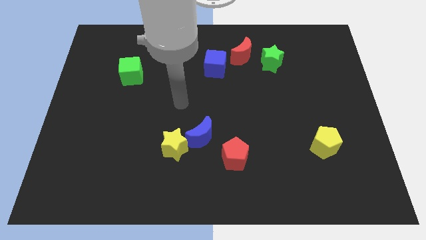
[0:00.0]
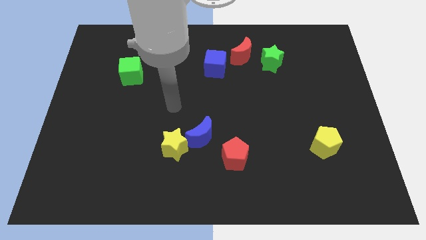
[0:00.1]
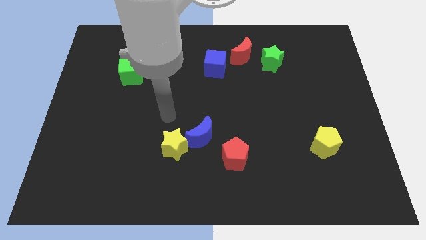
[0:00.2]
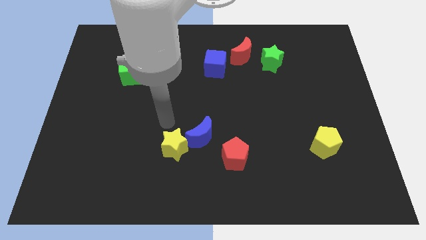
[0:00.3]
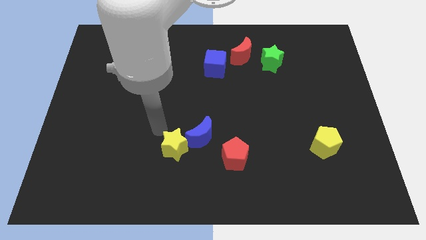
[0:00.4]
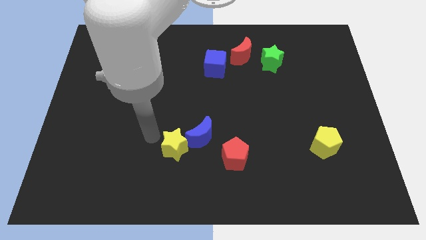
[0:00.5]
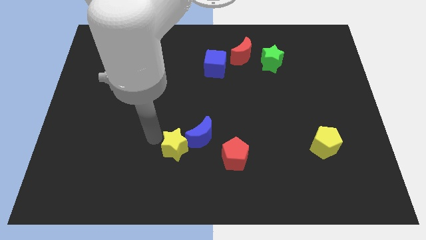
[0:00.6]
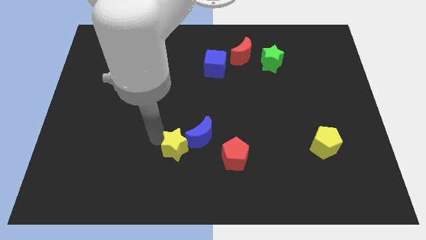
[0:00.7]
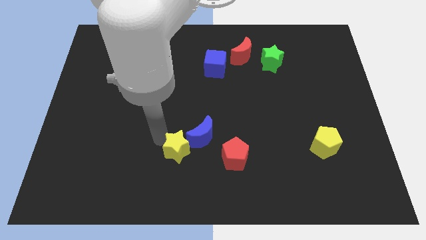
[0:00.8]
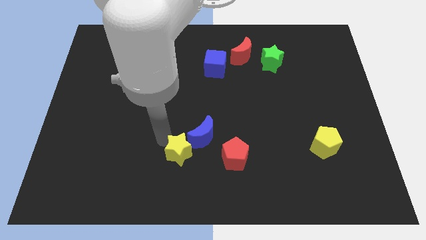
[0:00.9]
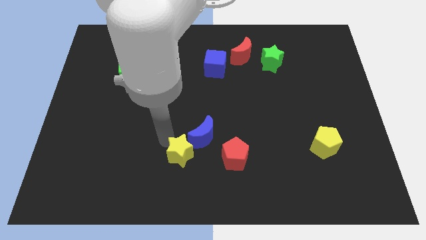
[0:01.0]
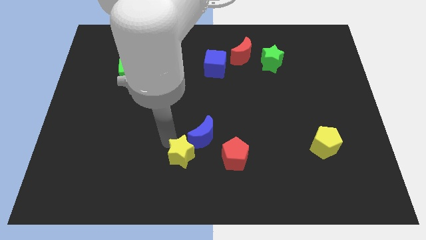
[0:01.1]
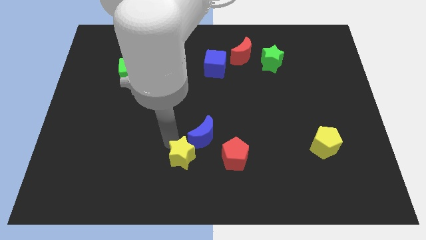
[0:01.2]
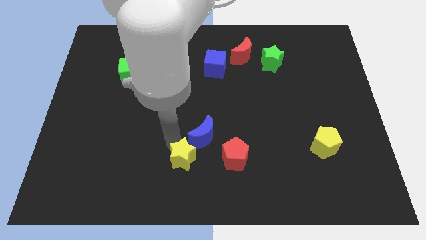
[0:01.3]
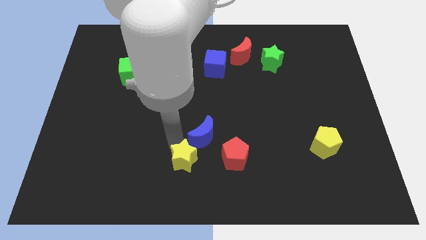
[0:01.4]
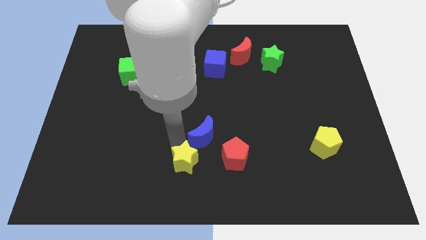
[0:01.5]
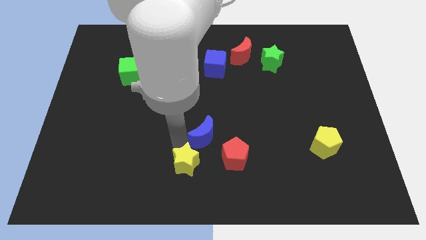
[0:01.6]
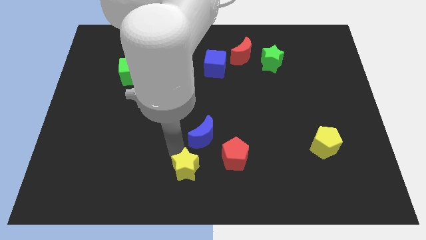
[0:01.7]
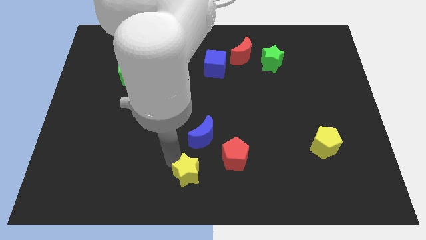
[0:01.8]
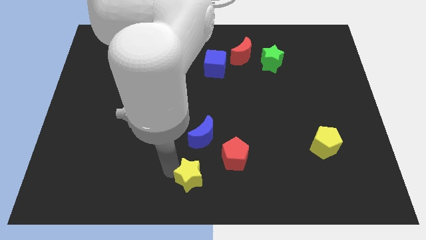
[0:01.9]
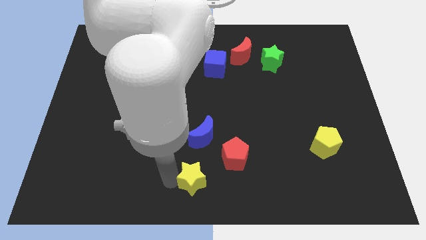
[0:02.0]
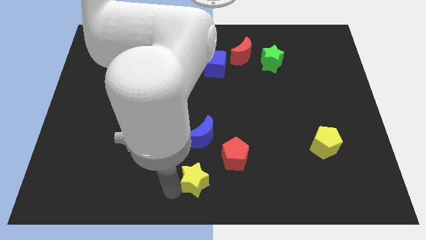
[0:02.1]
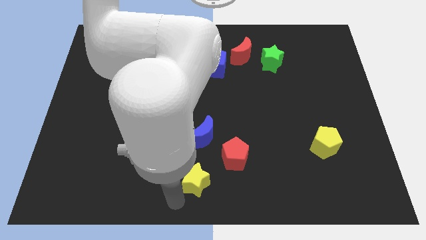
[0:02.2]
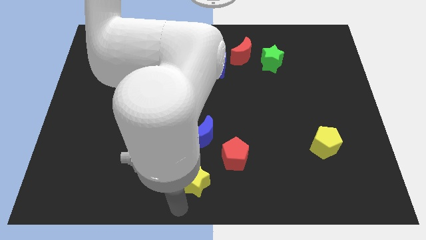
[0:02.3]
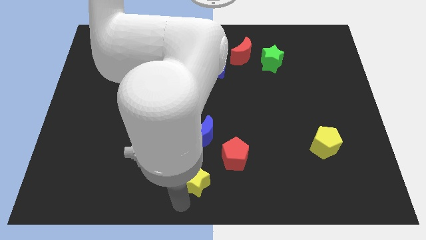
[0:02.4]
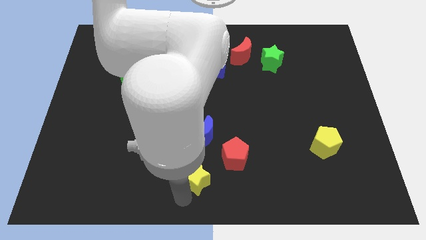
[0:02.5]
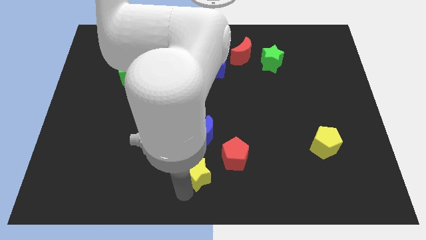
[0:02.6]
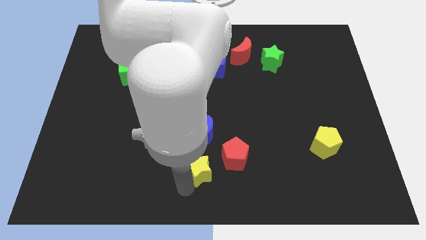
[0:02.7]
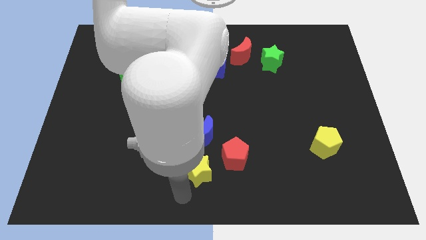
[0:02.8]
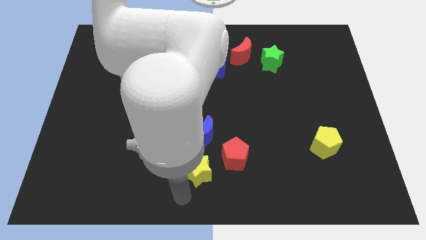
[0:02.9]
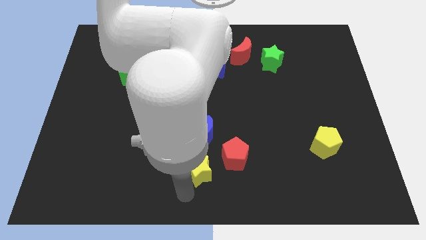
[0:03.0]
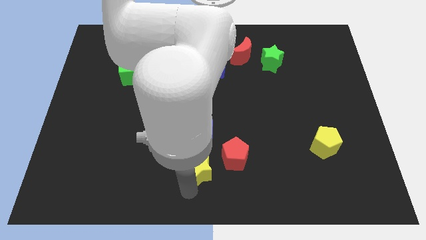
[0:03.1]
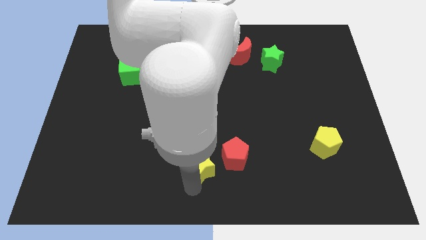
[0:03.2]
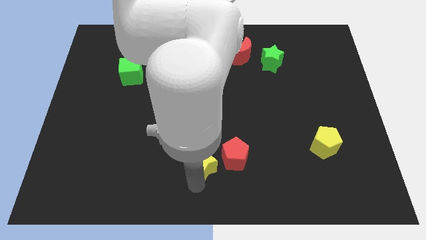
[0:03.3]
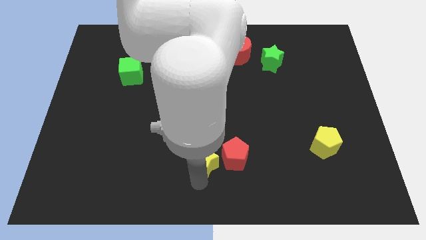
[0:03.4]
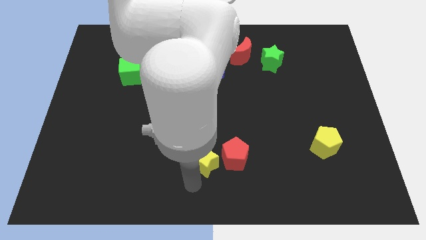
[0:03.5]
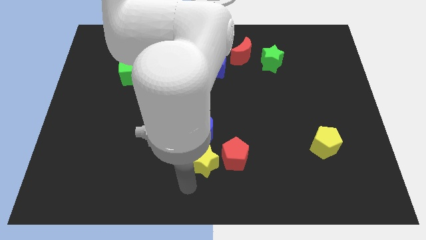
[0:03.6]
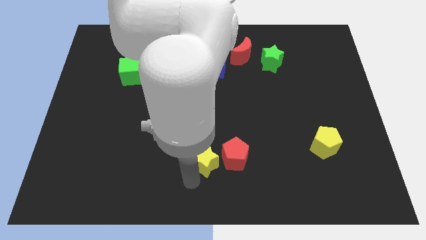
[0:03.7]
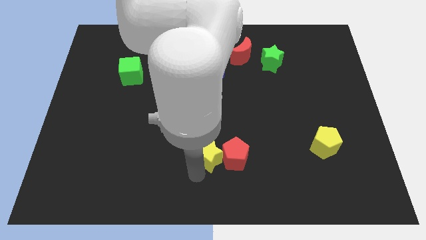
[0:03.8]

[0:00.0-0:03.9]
move the yellow star right a little bit

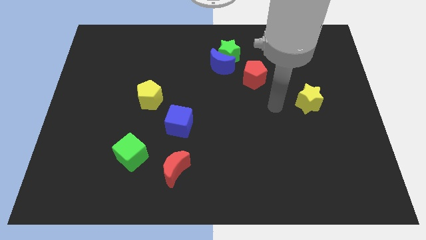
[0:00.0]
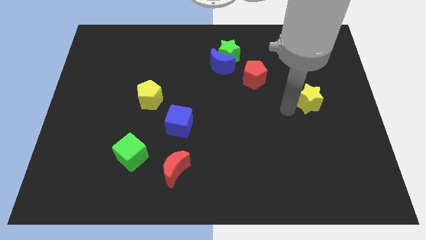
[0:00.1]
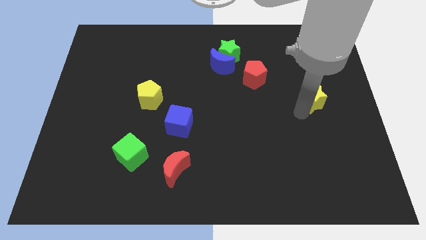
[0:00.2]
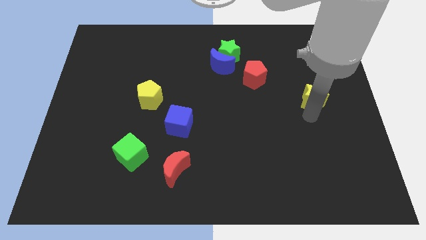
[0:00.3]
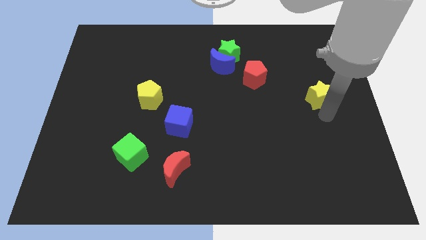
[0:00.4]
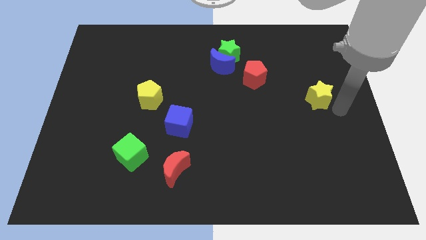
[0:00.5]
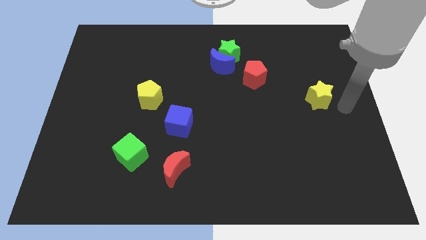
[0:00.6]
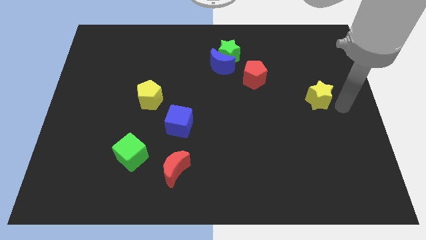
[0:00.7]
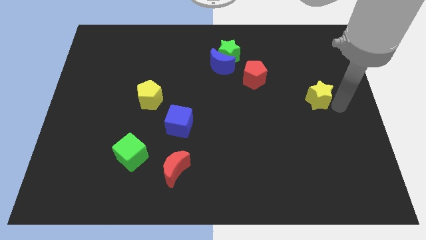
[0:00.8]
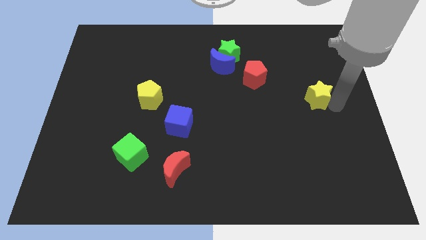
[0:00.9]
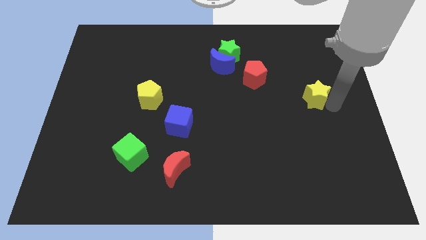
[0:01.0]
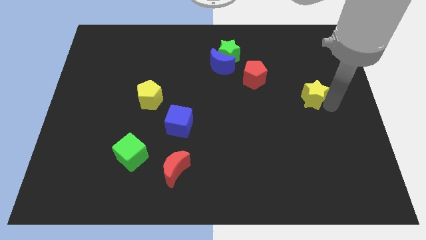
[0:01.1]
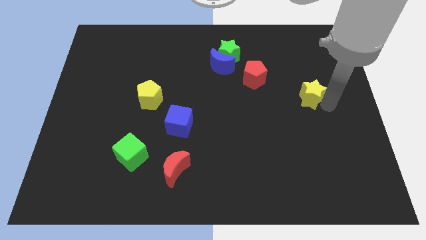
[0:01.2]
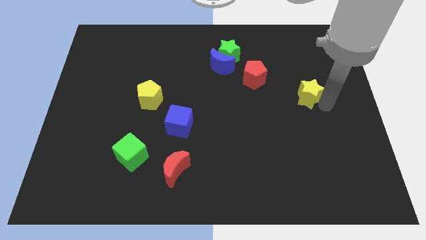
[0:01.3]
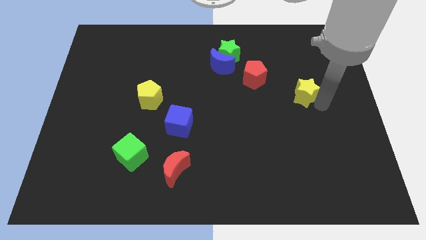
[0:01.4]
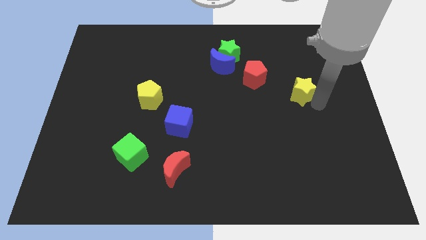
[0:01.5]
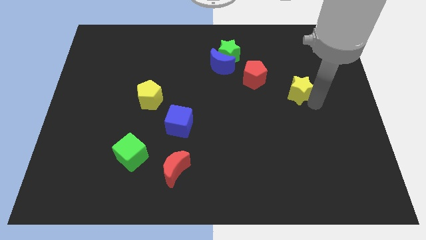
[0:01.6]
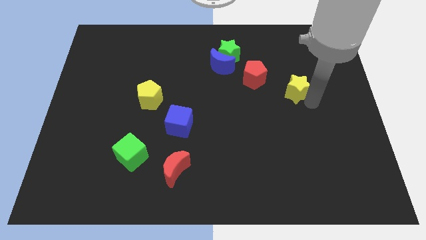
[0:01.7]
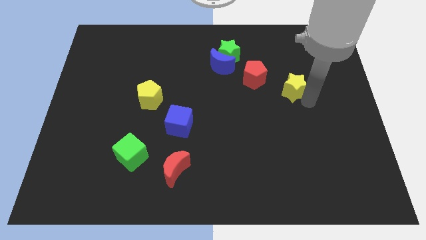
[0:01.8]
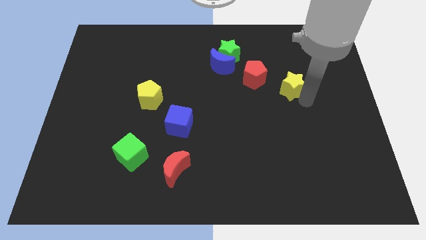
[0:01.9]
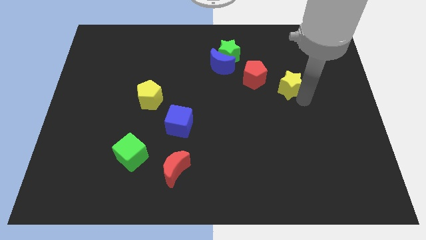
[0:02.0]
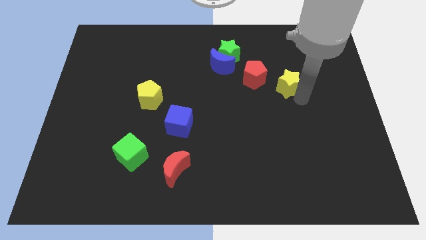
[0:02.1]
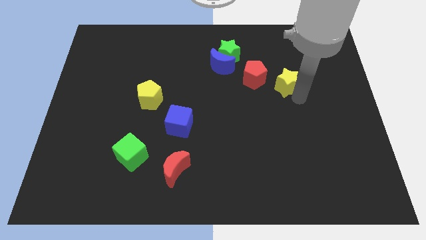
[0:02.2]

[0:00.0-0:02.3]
slightly move the yellow star up and left diagonally

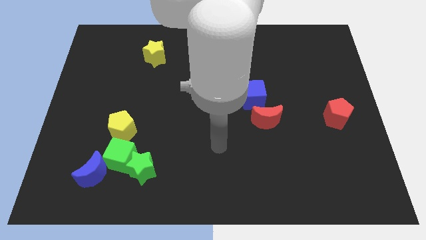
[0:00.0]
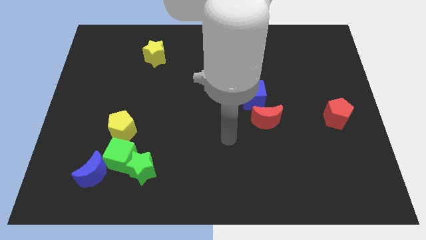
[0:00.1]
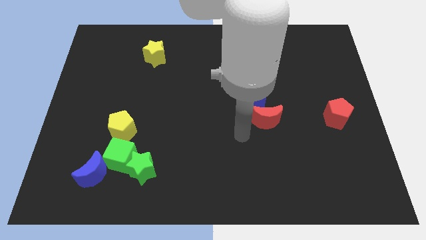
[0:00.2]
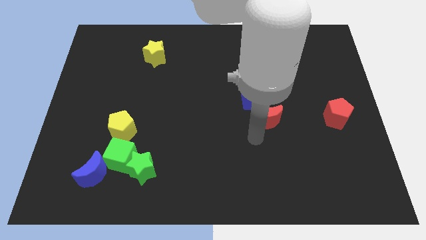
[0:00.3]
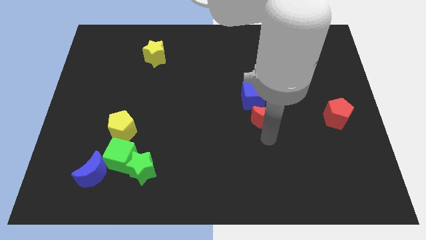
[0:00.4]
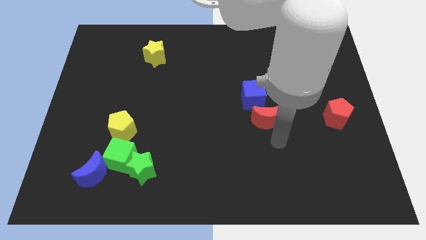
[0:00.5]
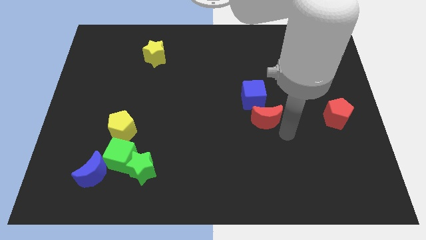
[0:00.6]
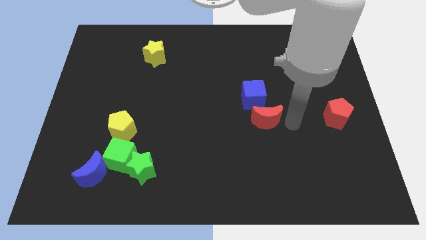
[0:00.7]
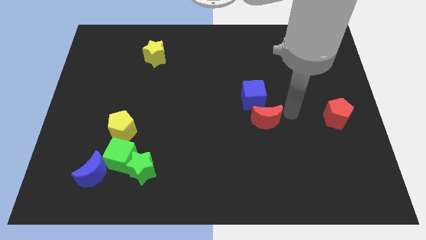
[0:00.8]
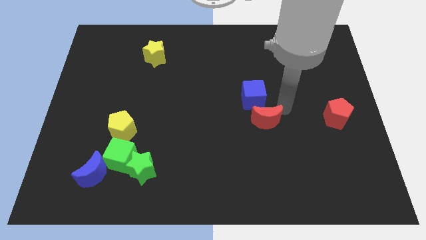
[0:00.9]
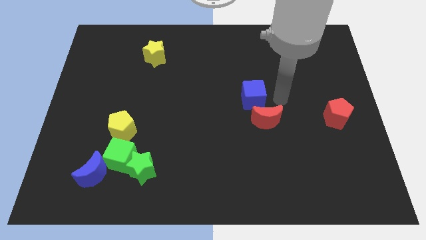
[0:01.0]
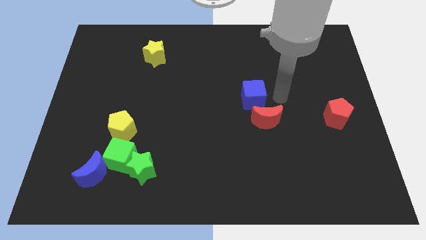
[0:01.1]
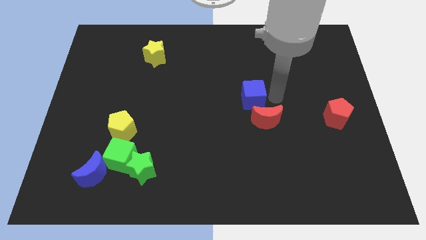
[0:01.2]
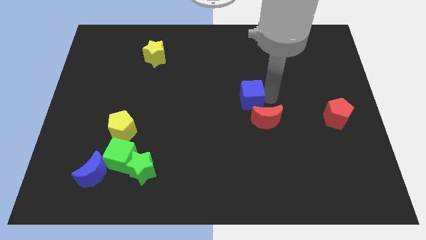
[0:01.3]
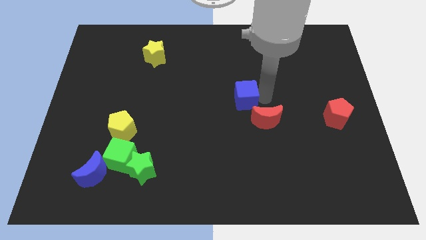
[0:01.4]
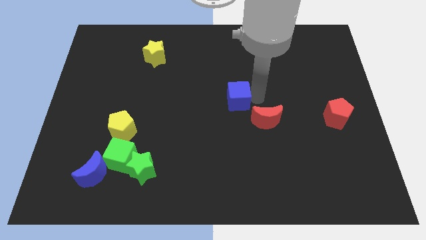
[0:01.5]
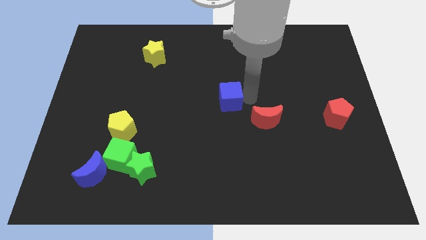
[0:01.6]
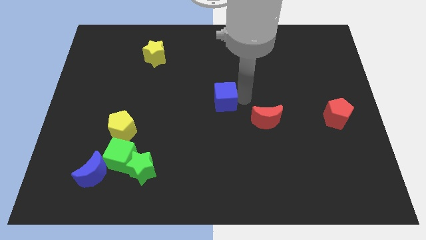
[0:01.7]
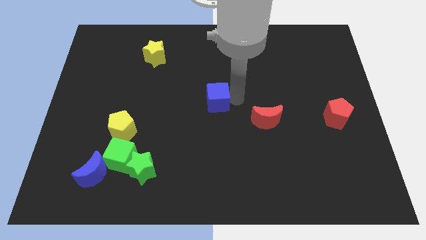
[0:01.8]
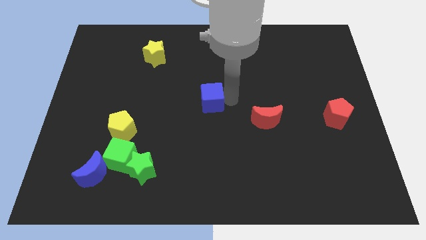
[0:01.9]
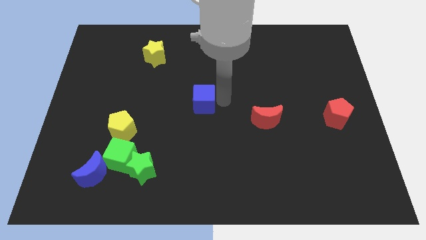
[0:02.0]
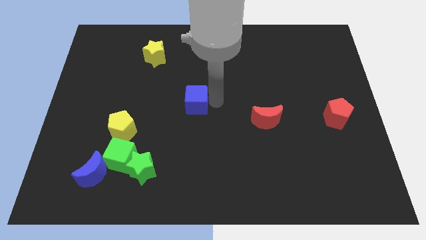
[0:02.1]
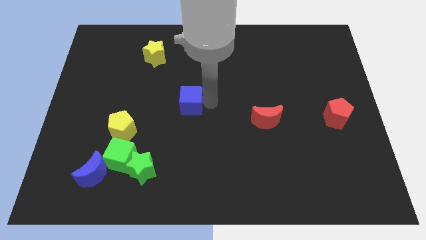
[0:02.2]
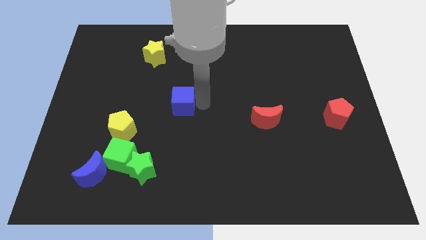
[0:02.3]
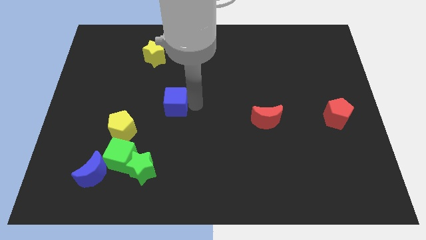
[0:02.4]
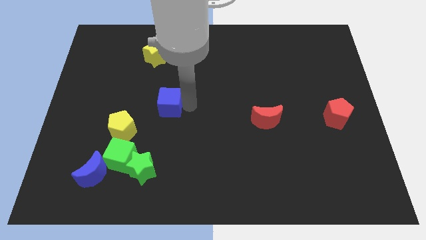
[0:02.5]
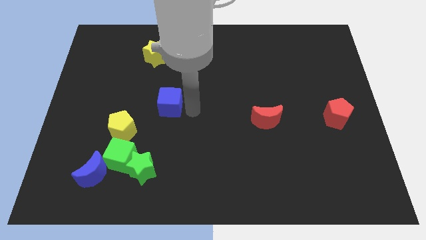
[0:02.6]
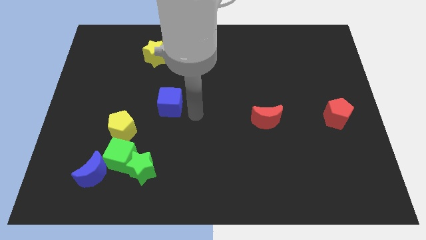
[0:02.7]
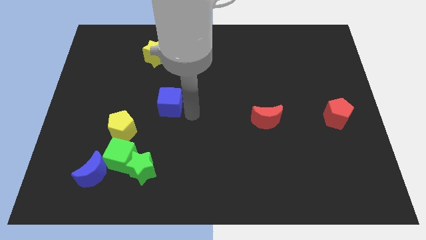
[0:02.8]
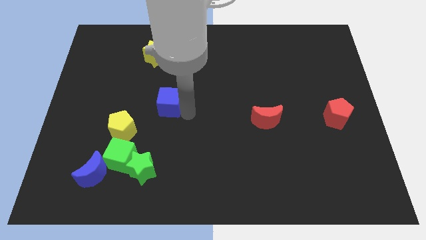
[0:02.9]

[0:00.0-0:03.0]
push the blue cube left
